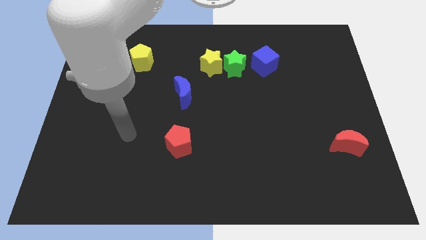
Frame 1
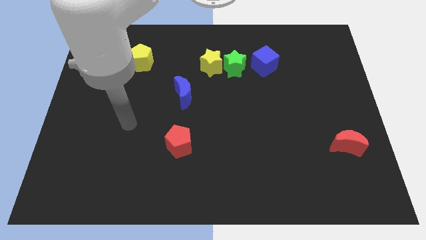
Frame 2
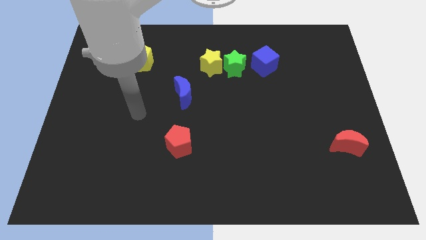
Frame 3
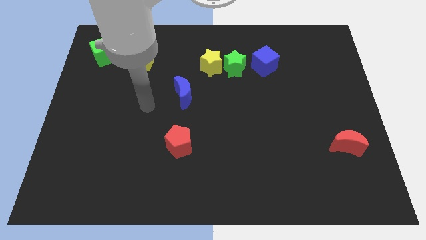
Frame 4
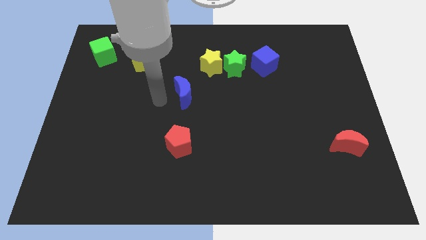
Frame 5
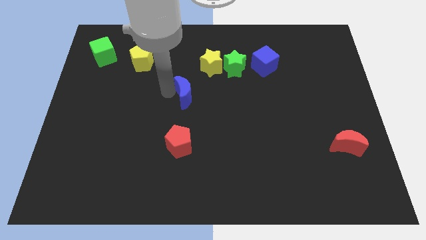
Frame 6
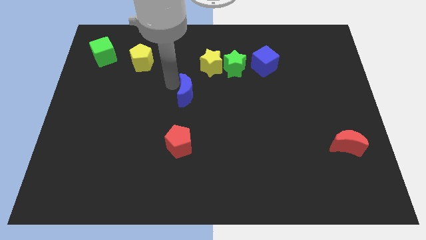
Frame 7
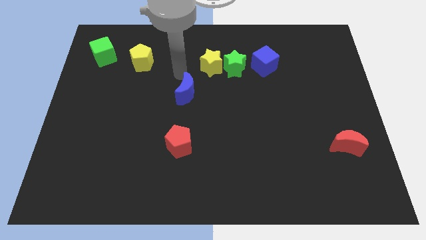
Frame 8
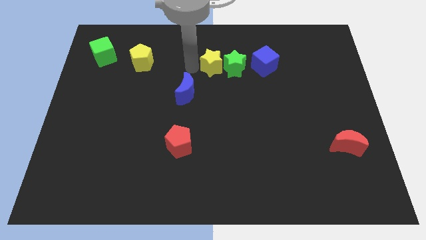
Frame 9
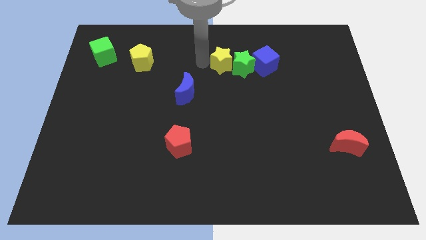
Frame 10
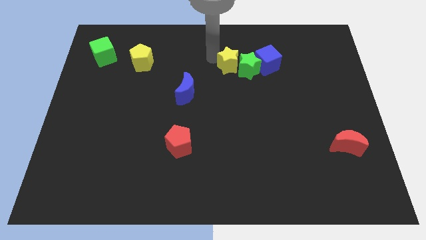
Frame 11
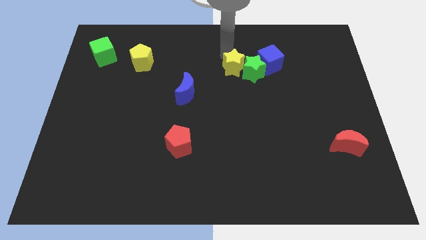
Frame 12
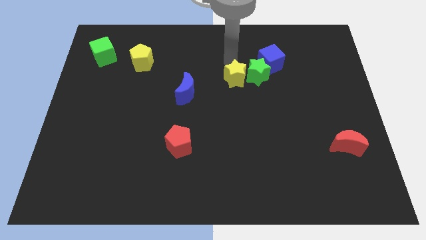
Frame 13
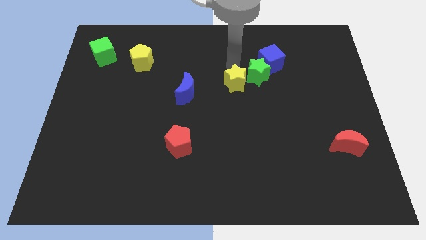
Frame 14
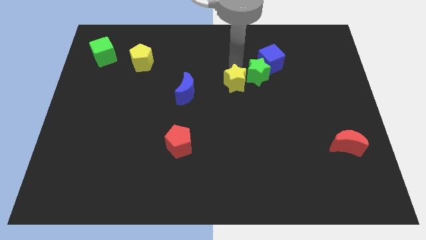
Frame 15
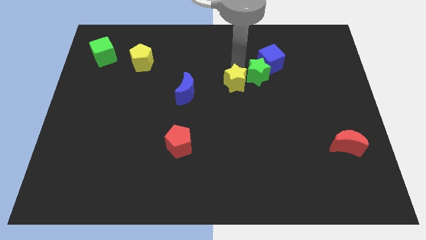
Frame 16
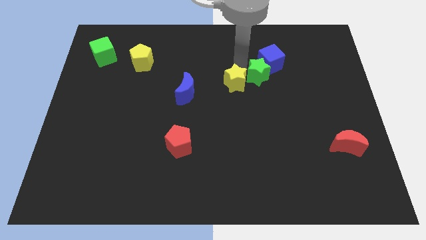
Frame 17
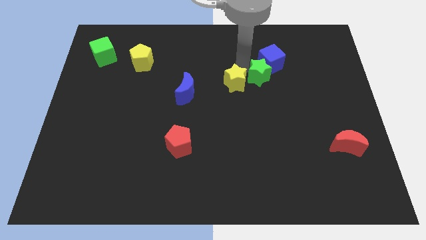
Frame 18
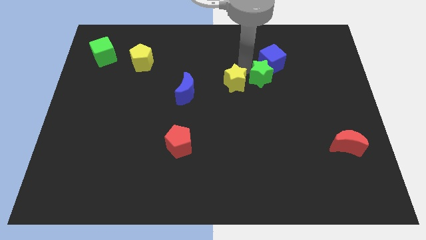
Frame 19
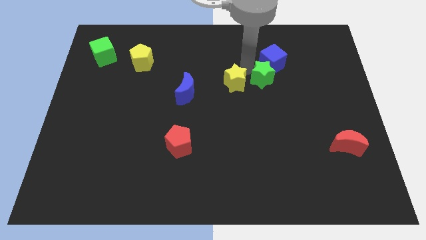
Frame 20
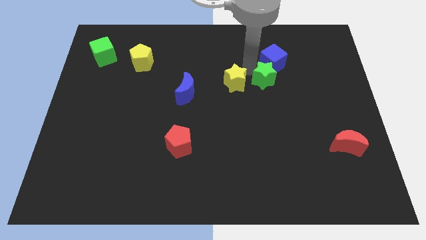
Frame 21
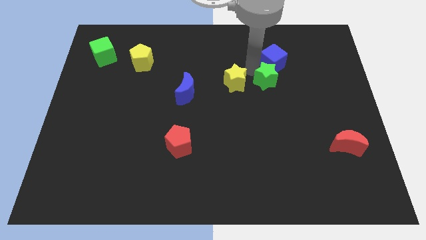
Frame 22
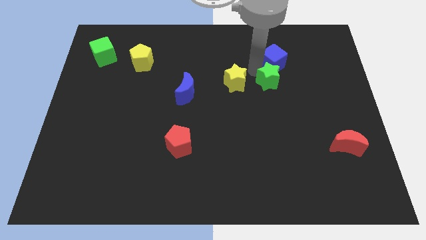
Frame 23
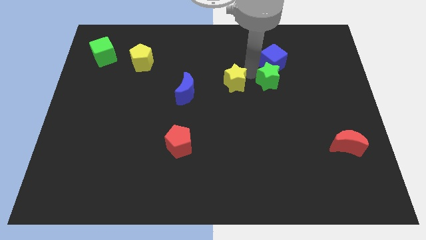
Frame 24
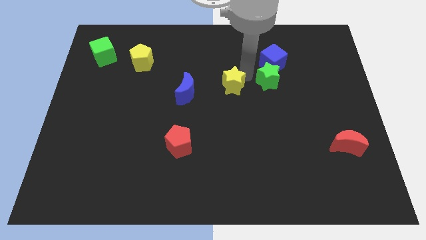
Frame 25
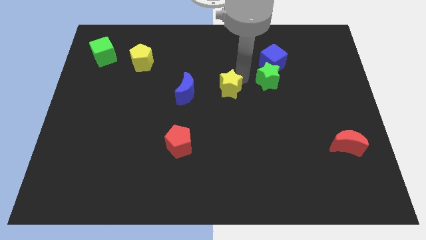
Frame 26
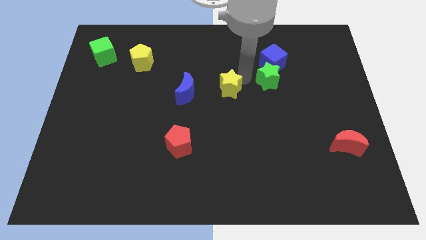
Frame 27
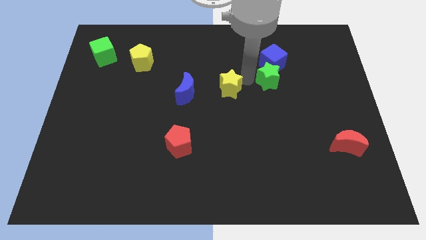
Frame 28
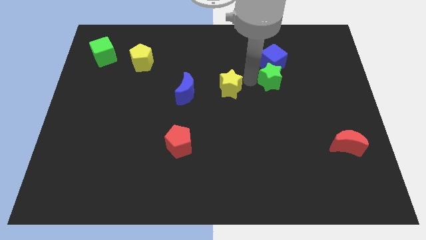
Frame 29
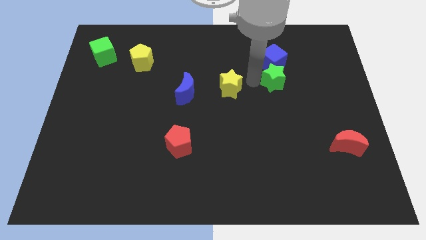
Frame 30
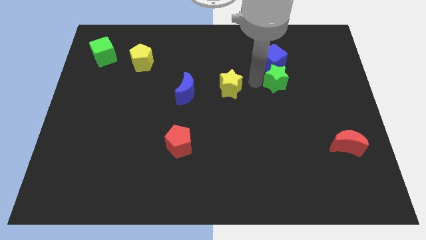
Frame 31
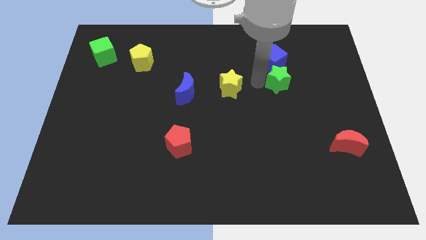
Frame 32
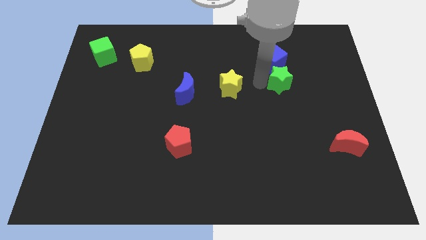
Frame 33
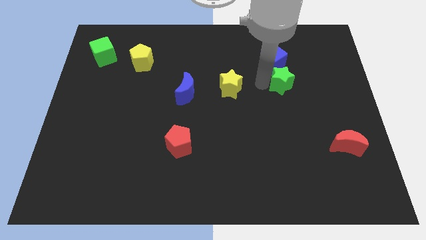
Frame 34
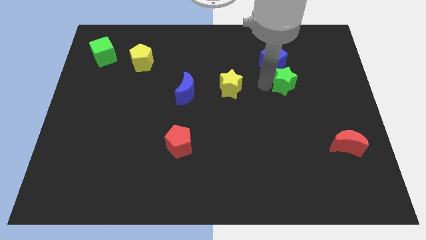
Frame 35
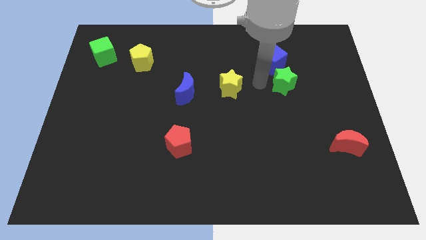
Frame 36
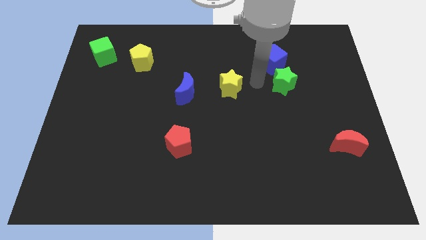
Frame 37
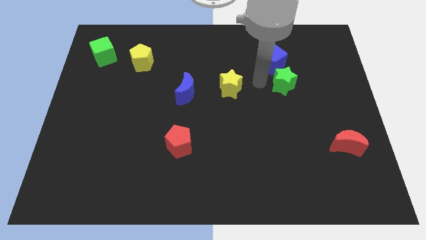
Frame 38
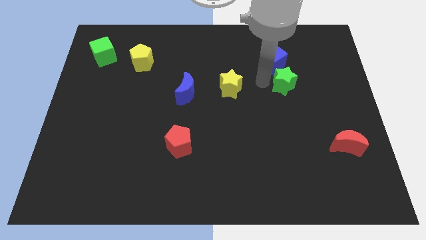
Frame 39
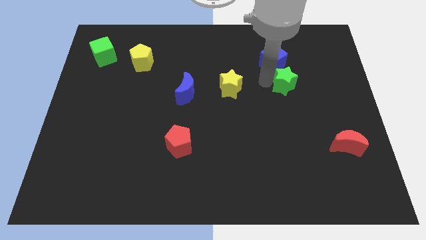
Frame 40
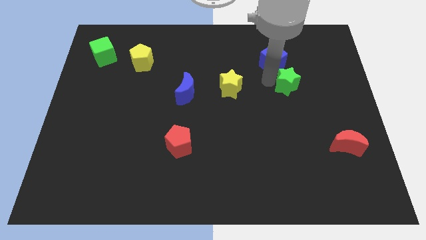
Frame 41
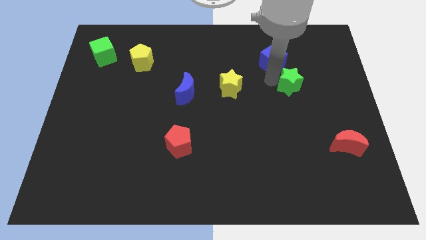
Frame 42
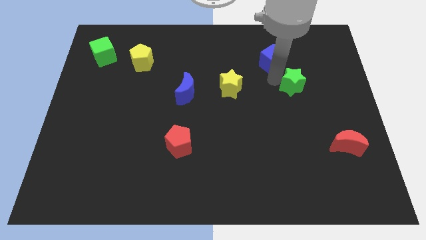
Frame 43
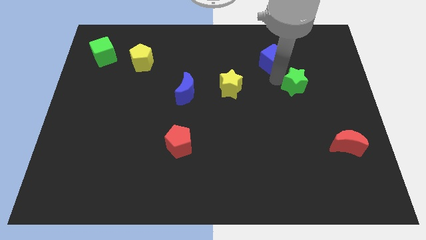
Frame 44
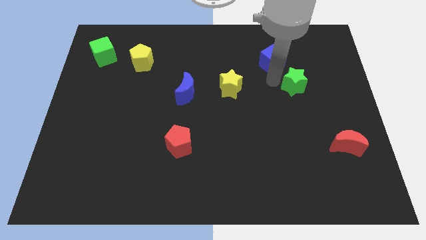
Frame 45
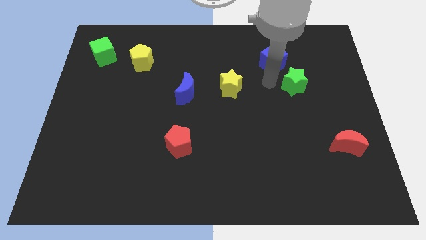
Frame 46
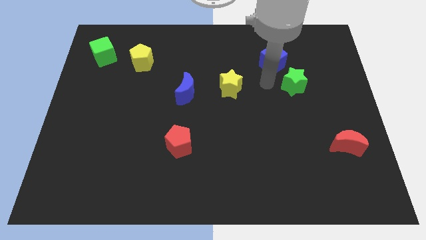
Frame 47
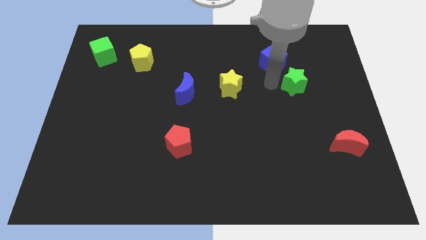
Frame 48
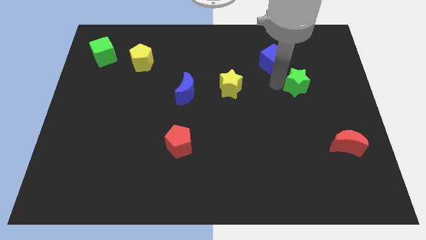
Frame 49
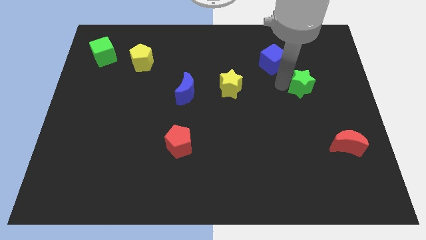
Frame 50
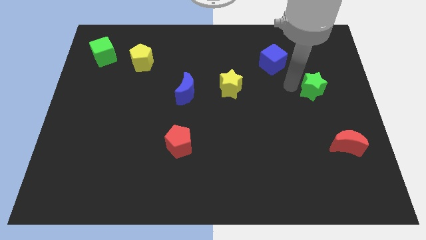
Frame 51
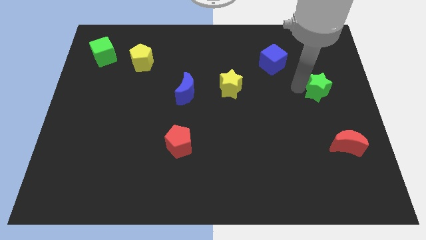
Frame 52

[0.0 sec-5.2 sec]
move the green star to the right side of the board
